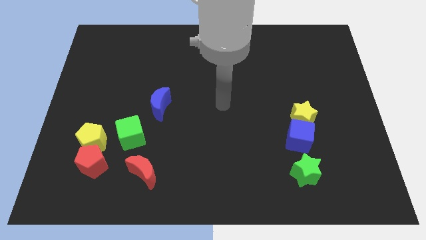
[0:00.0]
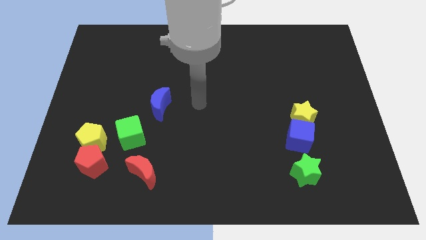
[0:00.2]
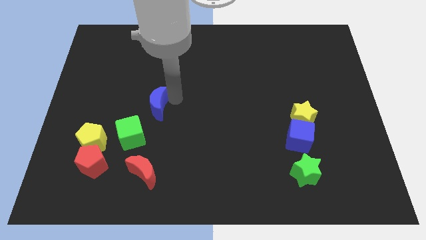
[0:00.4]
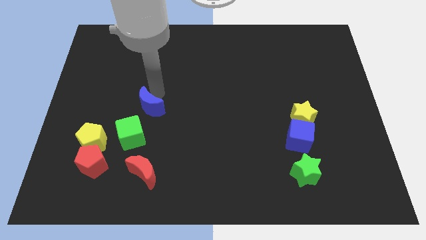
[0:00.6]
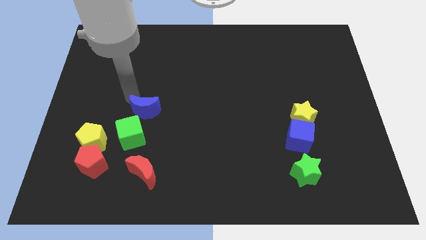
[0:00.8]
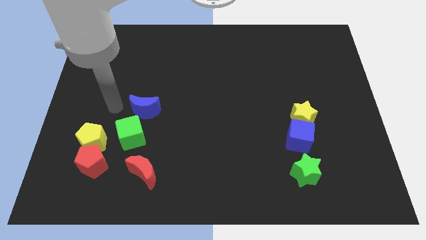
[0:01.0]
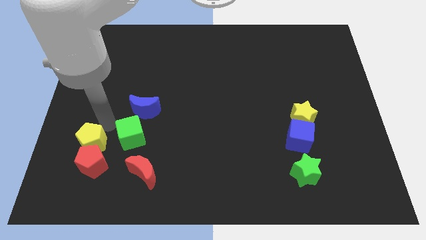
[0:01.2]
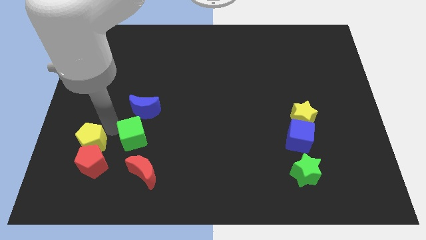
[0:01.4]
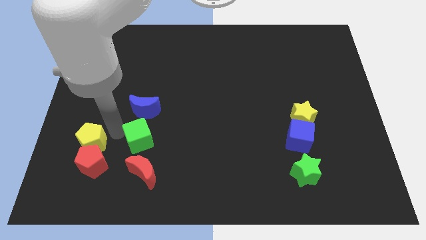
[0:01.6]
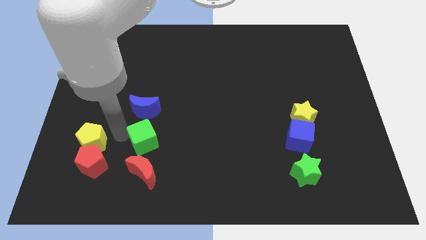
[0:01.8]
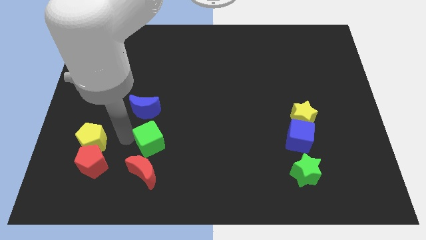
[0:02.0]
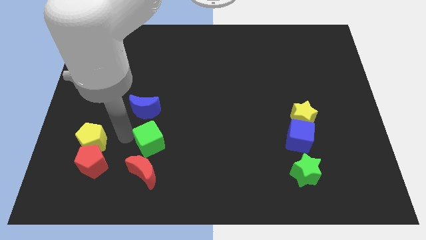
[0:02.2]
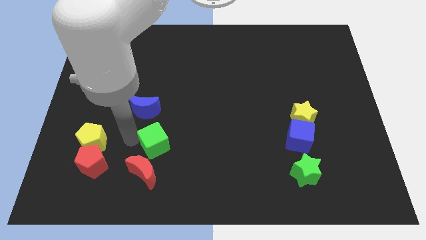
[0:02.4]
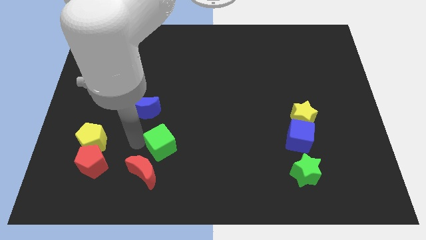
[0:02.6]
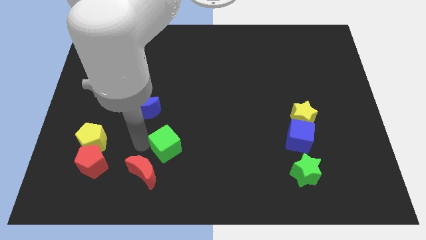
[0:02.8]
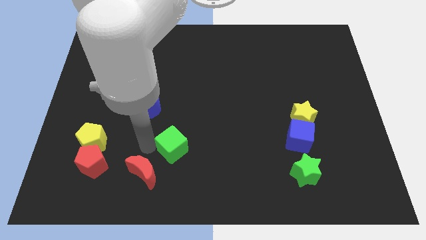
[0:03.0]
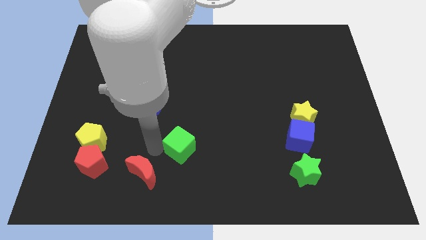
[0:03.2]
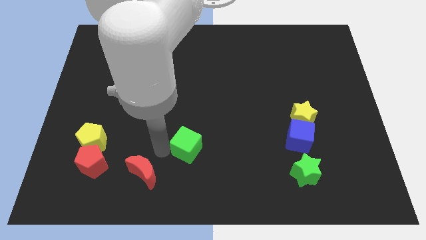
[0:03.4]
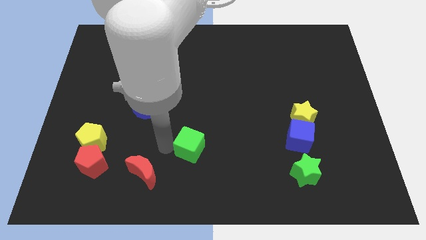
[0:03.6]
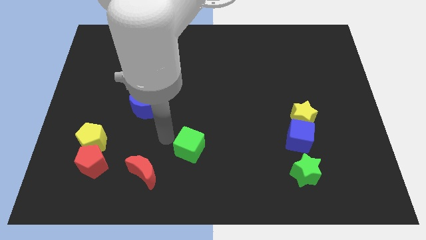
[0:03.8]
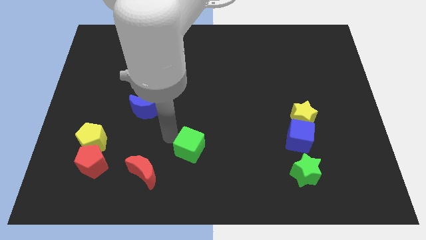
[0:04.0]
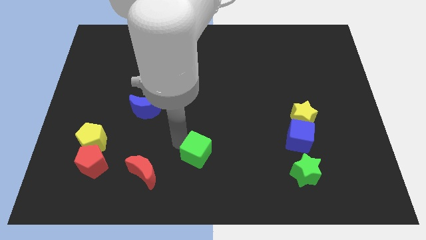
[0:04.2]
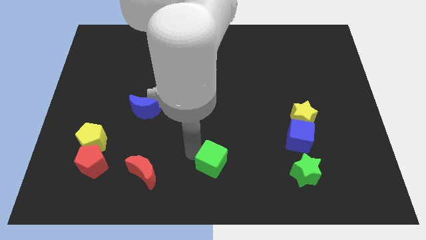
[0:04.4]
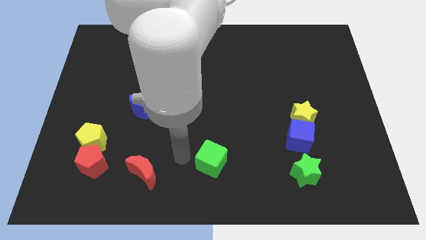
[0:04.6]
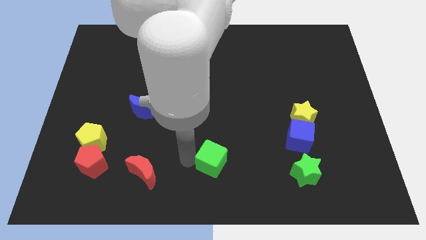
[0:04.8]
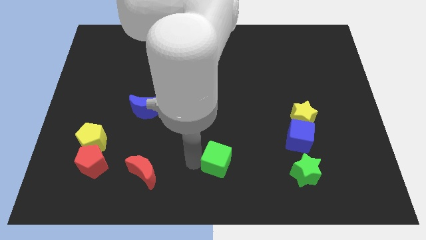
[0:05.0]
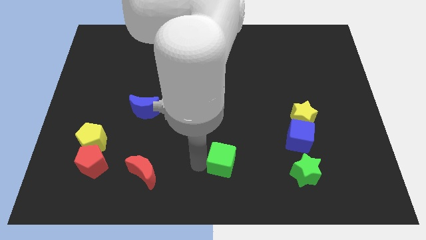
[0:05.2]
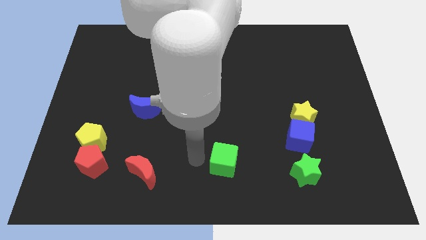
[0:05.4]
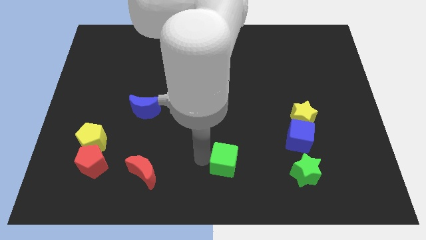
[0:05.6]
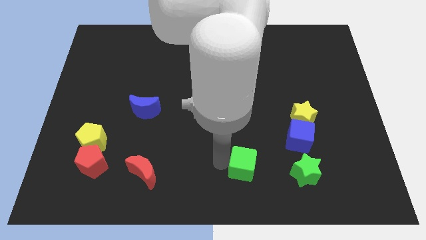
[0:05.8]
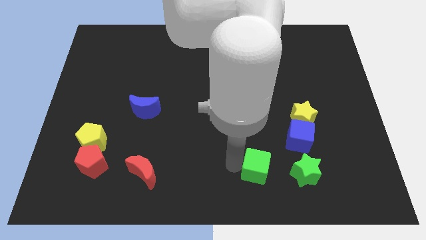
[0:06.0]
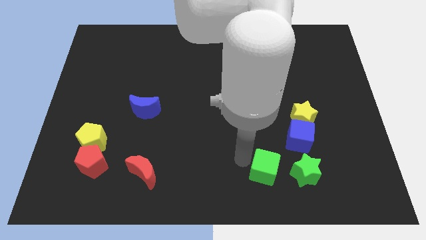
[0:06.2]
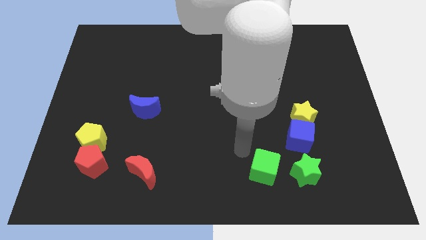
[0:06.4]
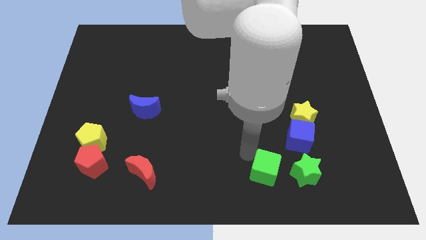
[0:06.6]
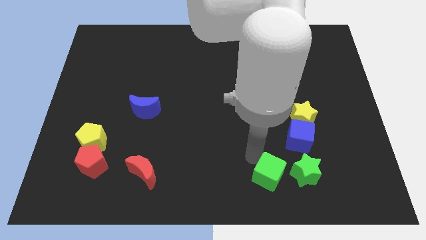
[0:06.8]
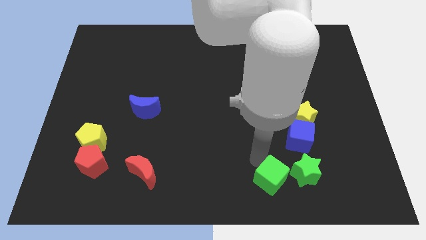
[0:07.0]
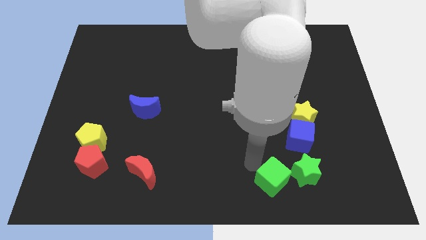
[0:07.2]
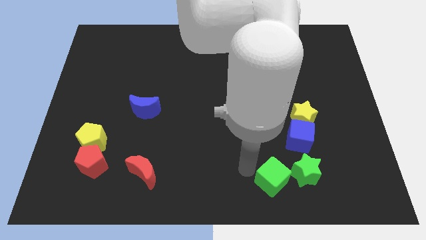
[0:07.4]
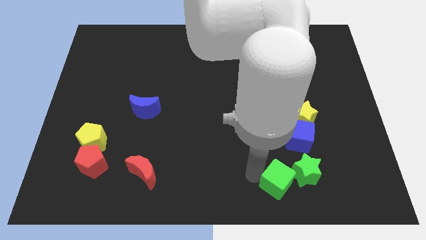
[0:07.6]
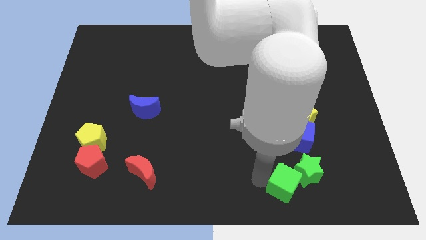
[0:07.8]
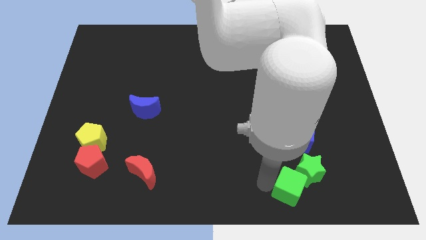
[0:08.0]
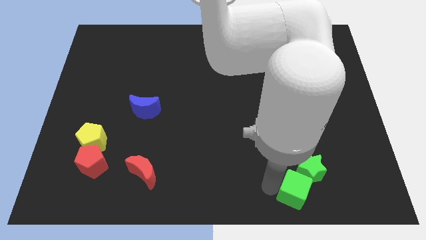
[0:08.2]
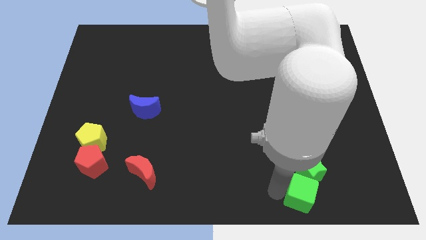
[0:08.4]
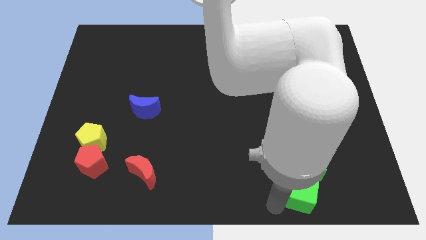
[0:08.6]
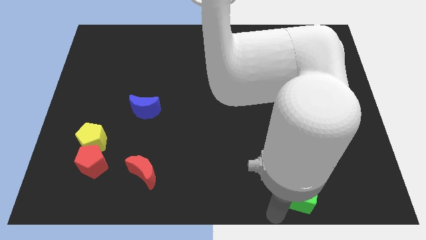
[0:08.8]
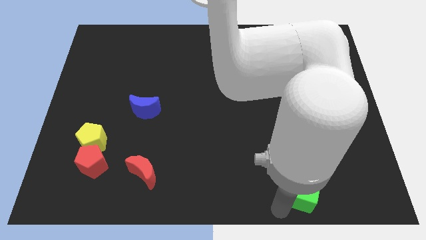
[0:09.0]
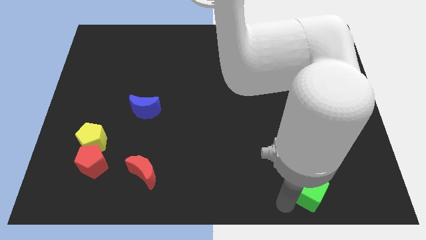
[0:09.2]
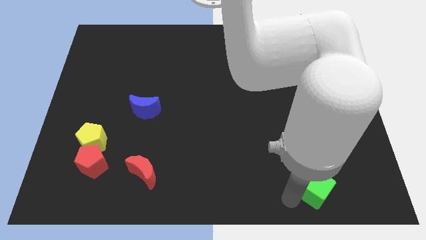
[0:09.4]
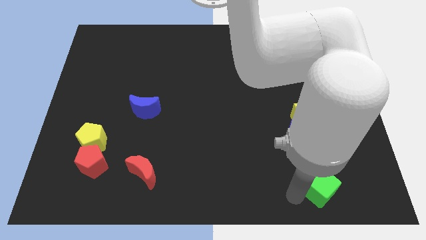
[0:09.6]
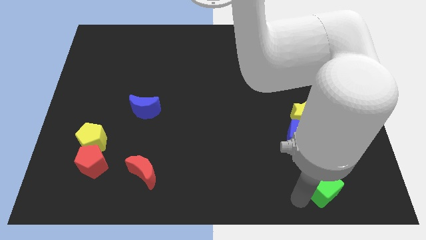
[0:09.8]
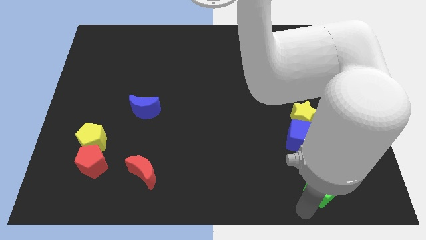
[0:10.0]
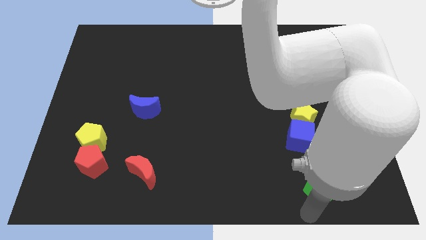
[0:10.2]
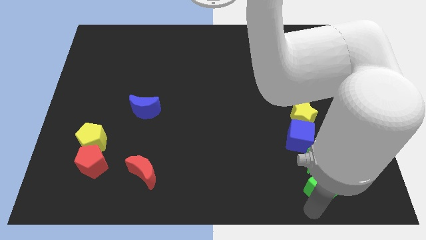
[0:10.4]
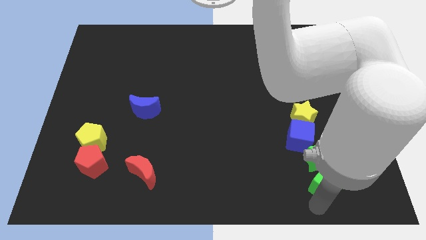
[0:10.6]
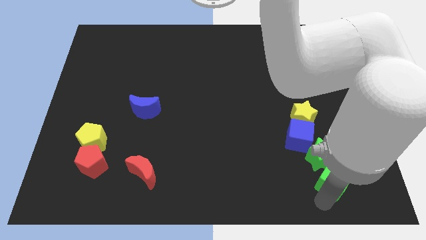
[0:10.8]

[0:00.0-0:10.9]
slide the green cube to the bottom right side of the blue cube

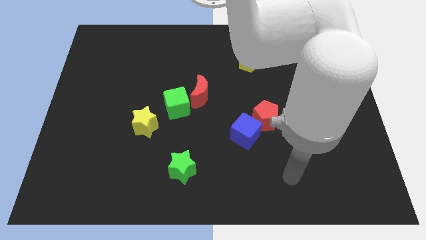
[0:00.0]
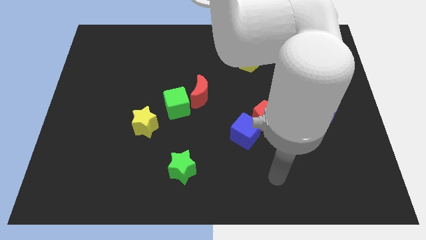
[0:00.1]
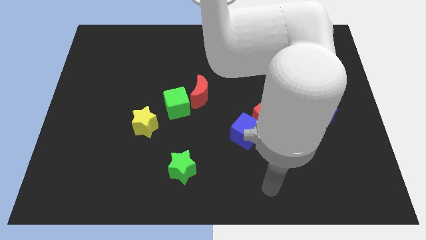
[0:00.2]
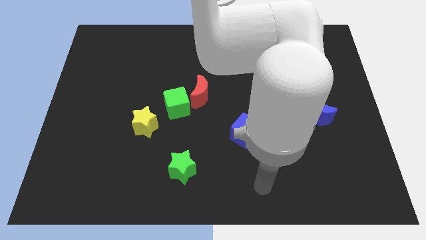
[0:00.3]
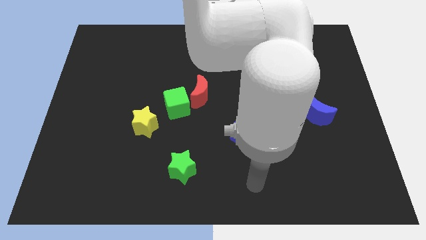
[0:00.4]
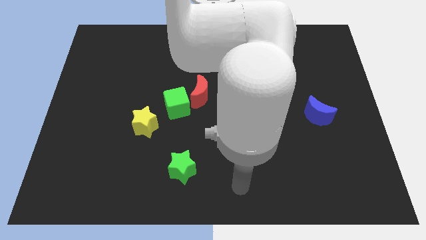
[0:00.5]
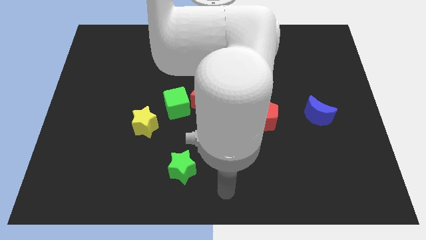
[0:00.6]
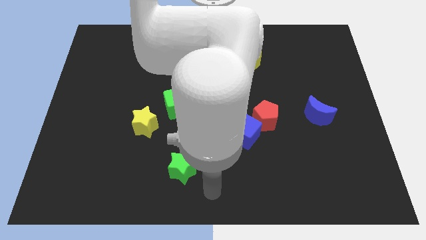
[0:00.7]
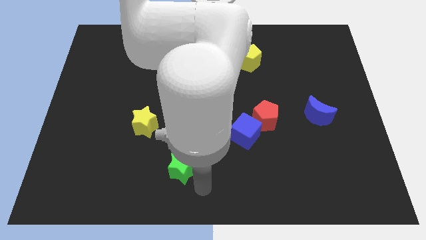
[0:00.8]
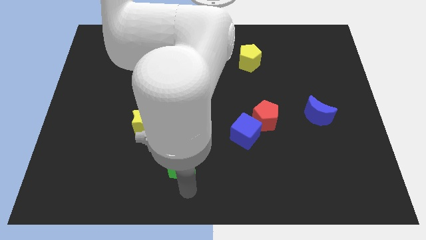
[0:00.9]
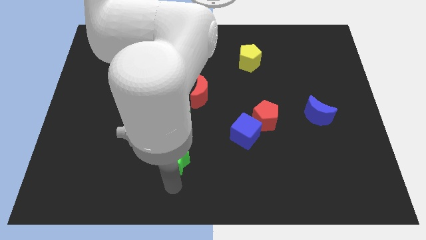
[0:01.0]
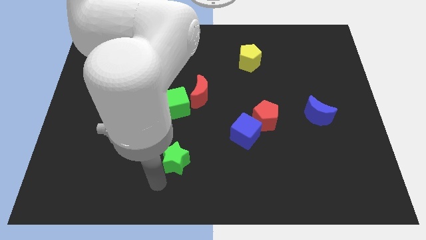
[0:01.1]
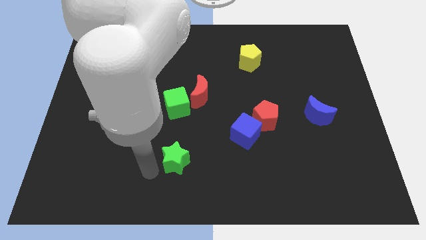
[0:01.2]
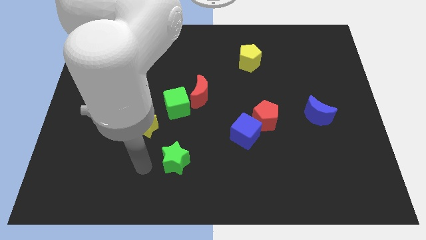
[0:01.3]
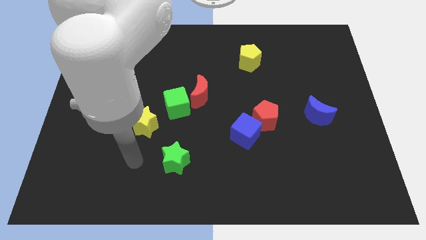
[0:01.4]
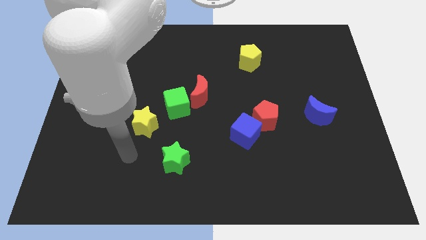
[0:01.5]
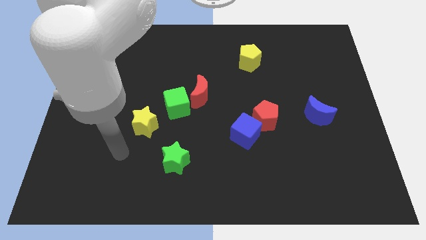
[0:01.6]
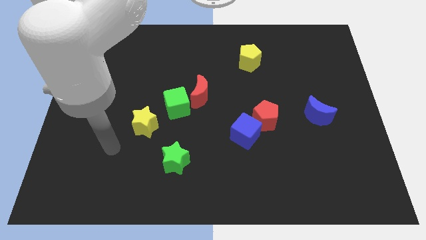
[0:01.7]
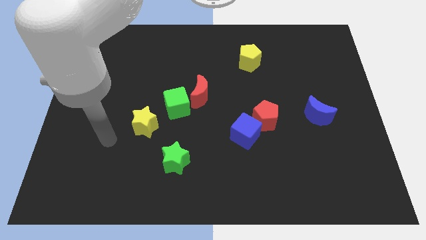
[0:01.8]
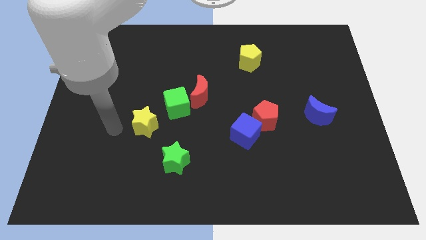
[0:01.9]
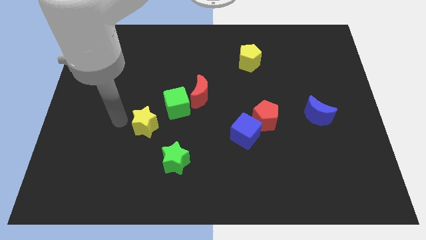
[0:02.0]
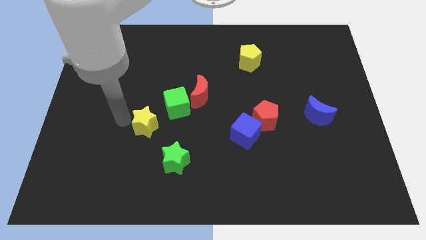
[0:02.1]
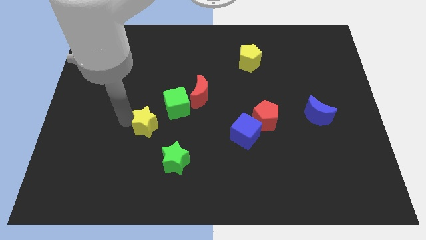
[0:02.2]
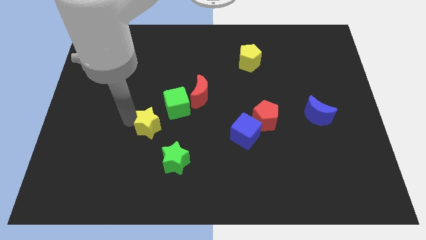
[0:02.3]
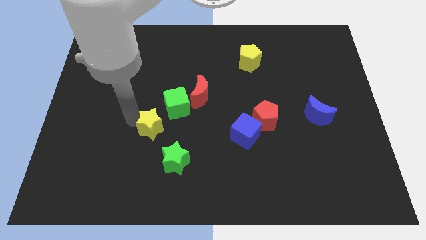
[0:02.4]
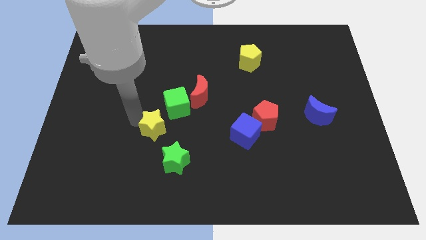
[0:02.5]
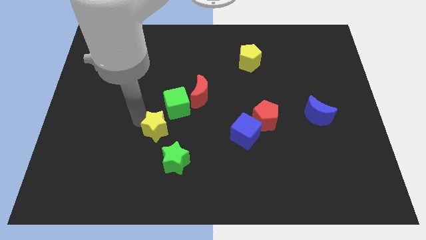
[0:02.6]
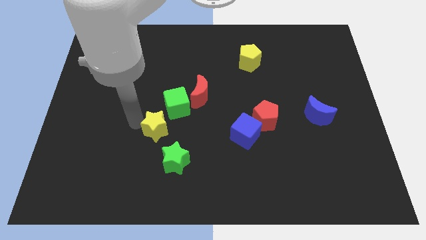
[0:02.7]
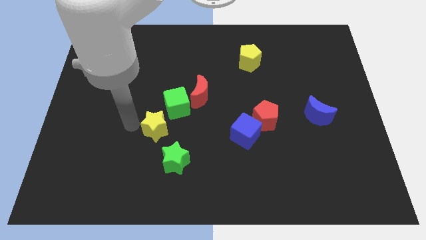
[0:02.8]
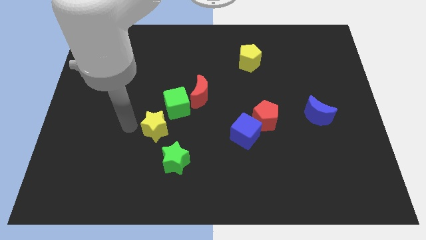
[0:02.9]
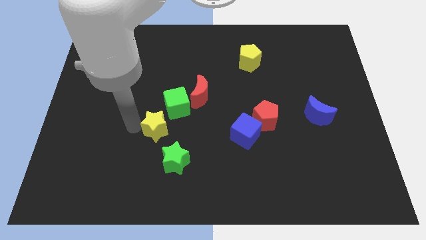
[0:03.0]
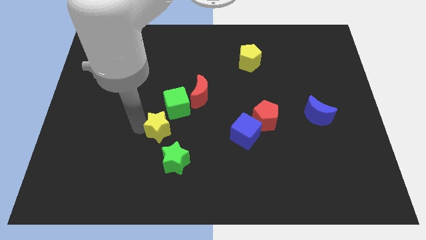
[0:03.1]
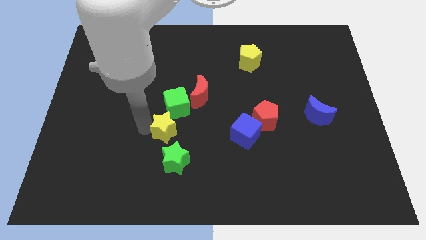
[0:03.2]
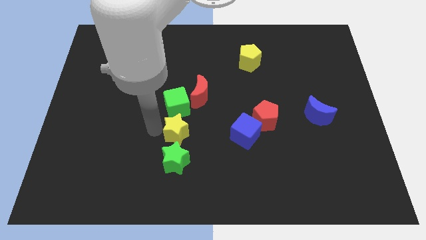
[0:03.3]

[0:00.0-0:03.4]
put the yellow star below the red moon
